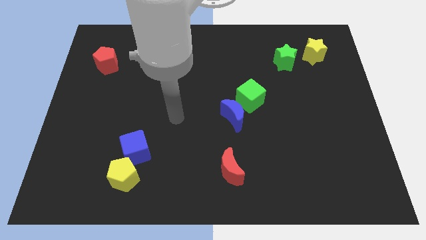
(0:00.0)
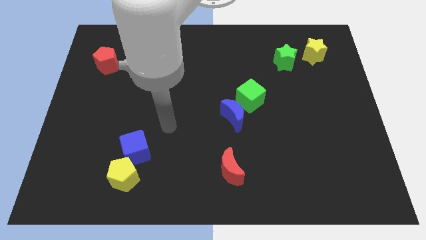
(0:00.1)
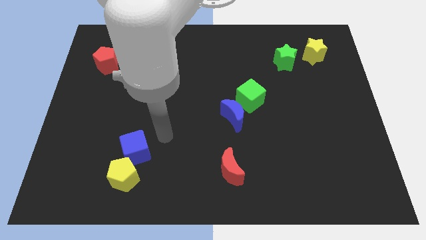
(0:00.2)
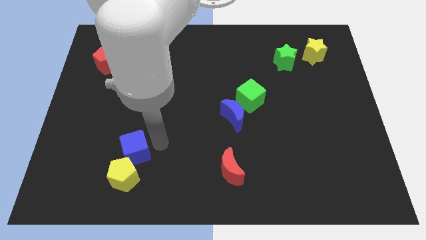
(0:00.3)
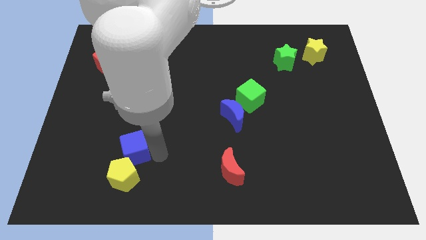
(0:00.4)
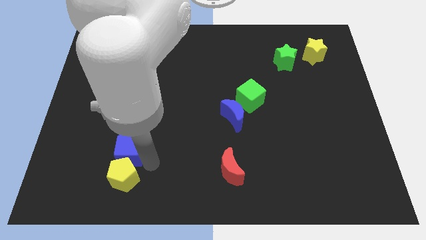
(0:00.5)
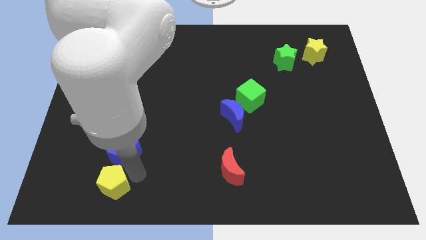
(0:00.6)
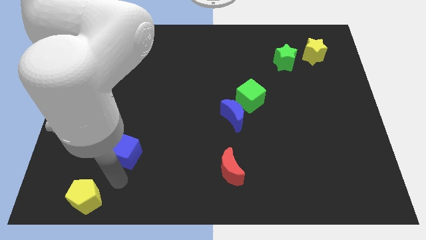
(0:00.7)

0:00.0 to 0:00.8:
move the blue cube away from the yellow pentagon

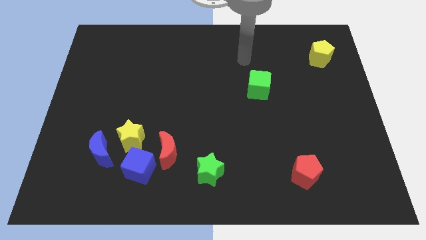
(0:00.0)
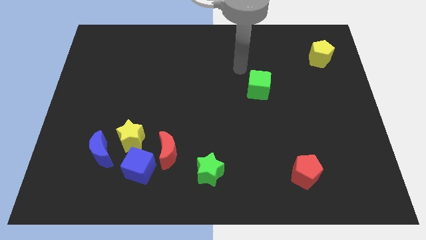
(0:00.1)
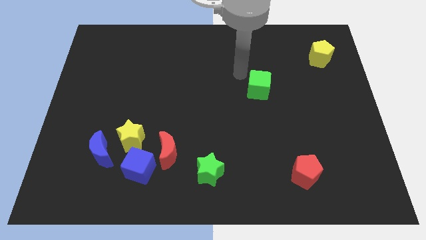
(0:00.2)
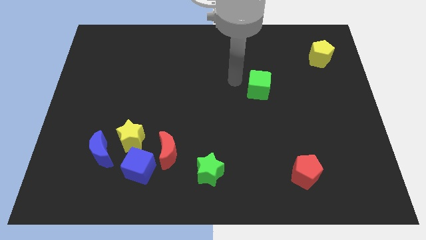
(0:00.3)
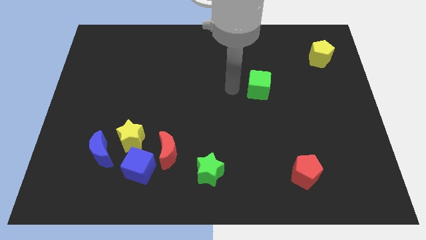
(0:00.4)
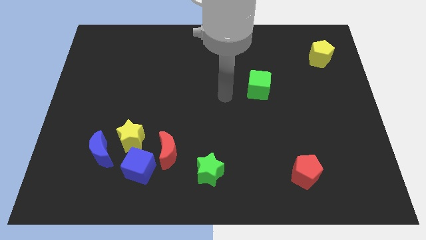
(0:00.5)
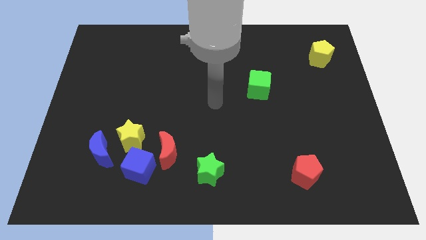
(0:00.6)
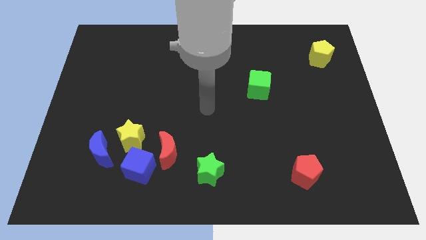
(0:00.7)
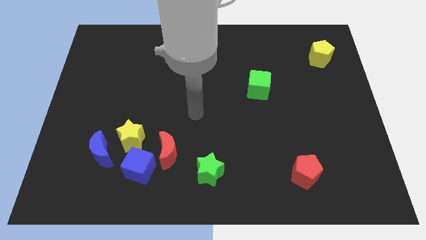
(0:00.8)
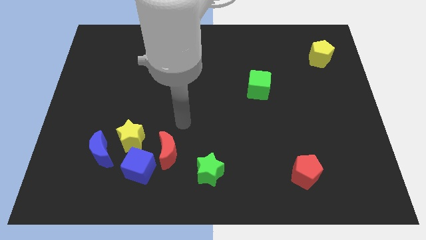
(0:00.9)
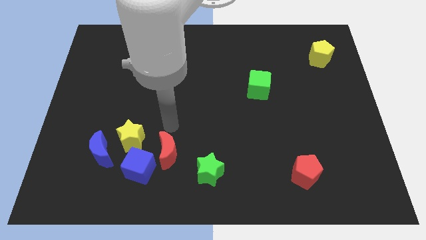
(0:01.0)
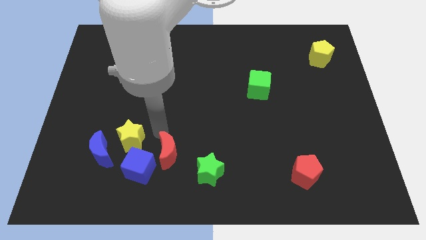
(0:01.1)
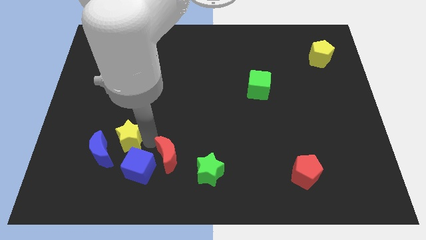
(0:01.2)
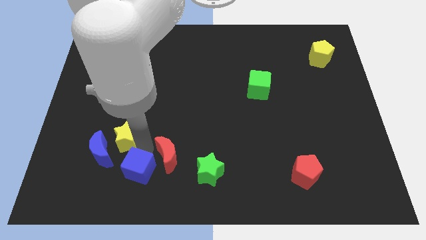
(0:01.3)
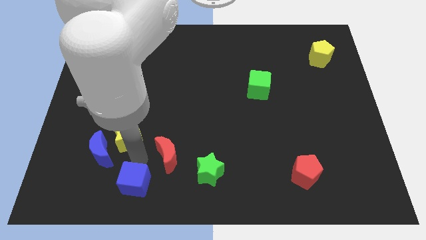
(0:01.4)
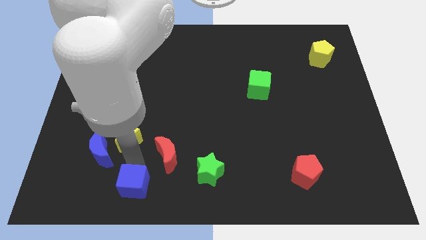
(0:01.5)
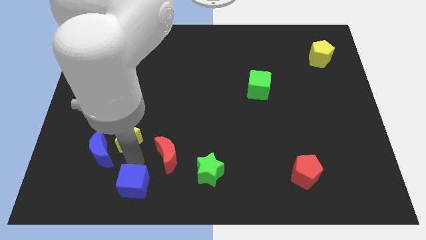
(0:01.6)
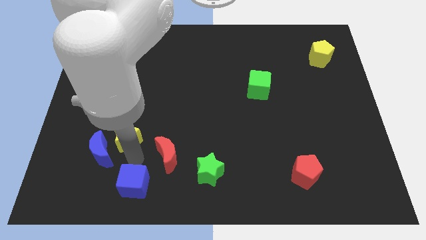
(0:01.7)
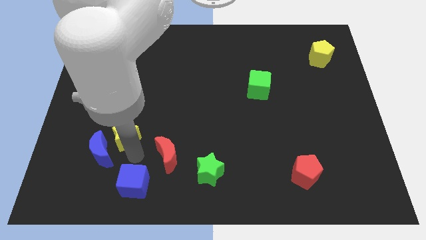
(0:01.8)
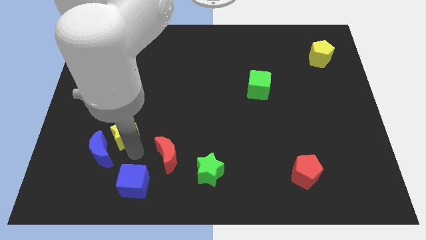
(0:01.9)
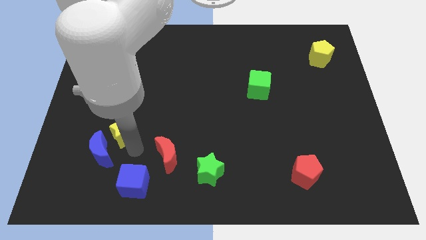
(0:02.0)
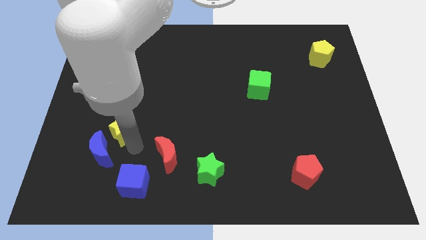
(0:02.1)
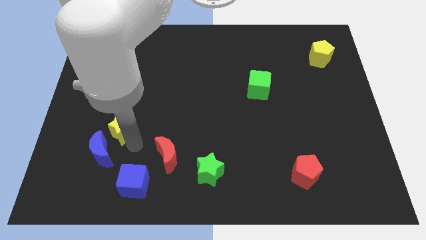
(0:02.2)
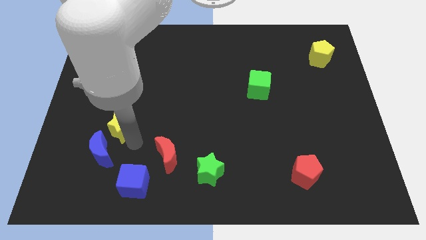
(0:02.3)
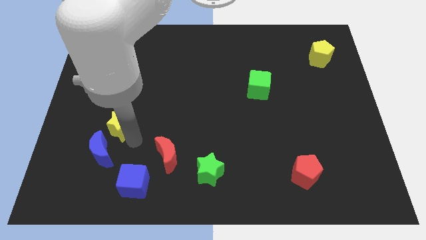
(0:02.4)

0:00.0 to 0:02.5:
move the yellow star away from the group

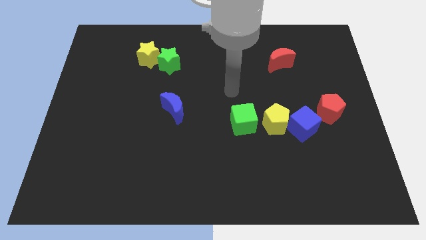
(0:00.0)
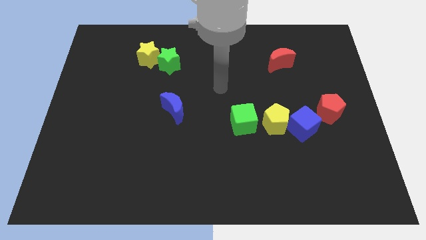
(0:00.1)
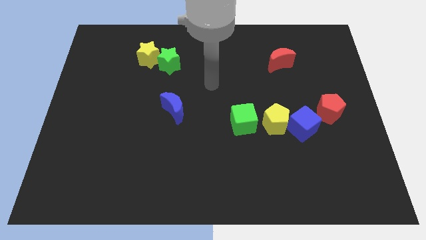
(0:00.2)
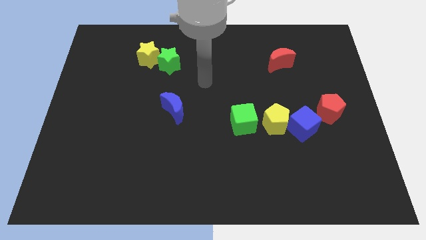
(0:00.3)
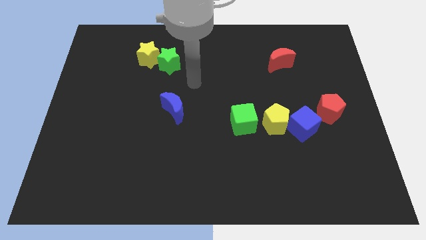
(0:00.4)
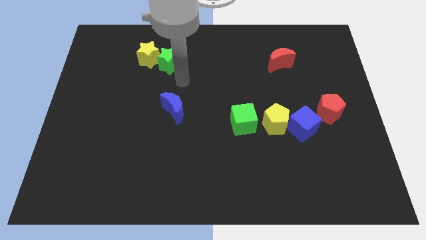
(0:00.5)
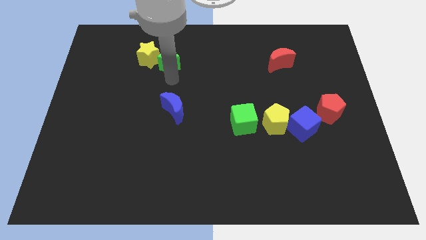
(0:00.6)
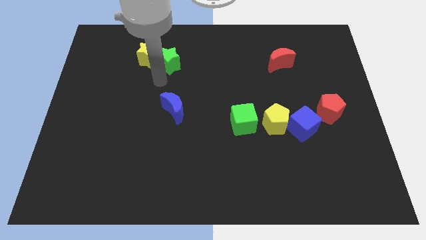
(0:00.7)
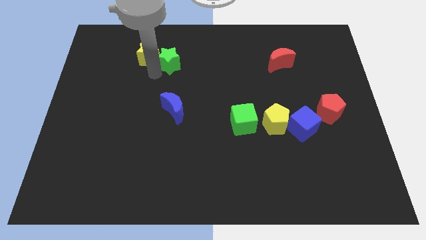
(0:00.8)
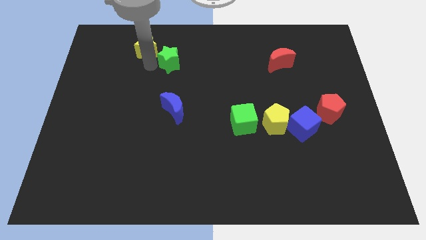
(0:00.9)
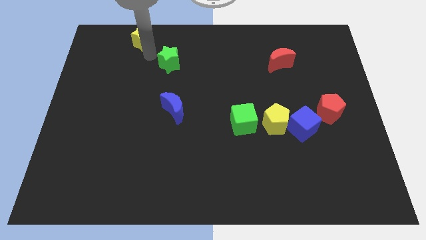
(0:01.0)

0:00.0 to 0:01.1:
move the green star away from the yellow star

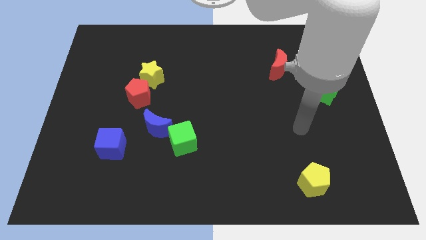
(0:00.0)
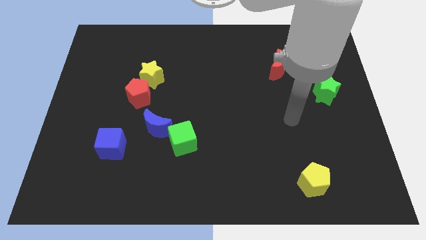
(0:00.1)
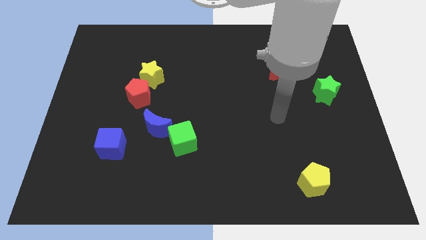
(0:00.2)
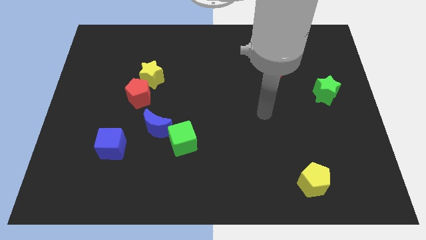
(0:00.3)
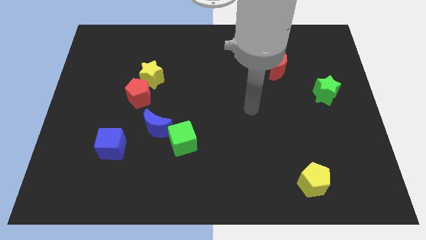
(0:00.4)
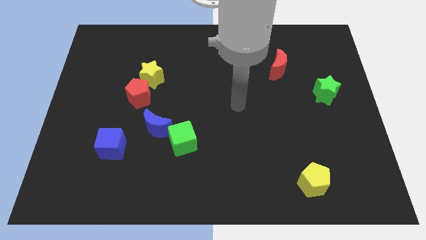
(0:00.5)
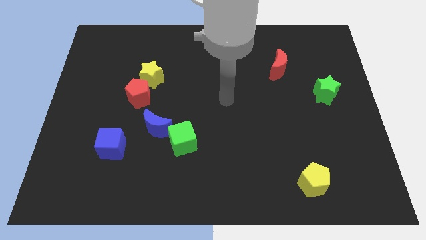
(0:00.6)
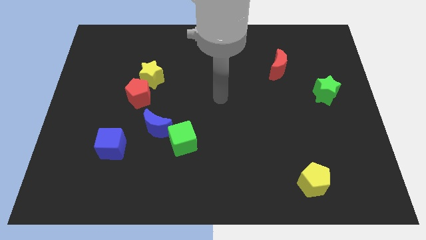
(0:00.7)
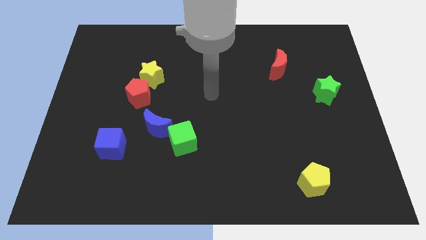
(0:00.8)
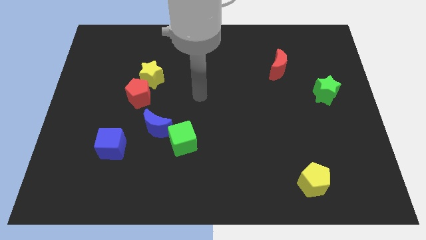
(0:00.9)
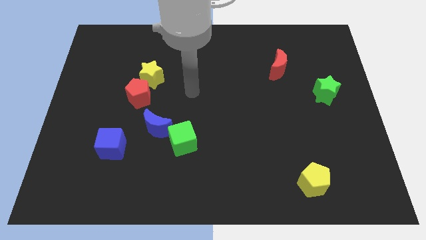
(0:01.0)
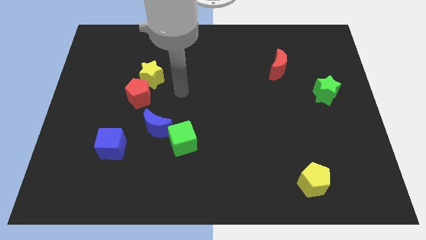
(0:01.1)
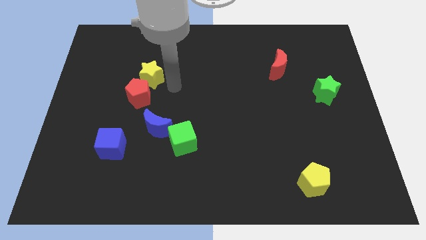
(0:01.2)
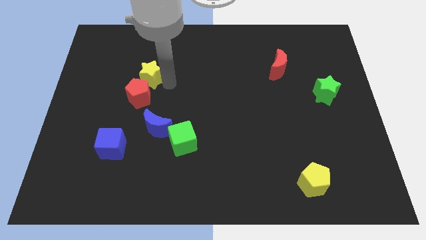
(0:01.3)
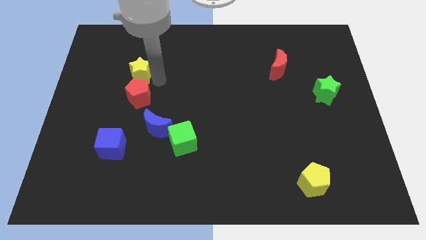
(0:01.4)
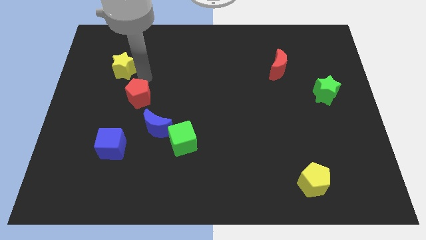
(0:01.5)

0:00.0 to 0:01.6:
pull the red pentagon apart from the yellow star

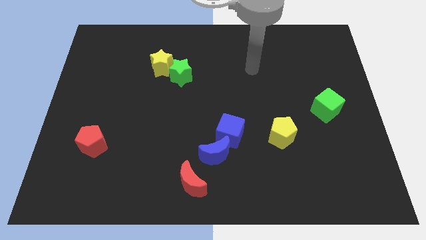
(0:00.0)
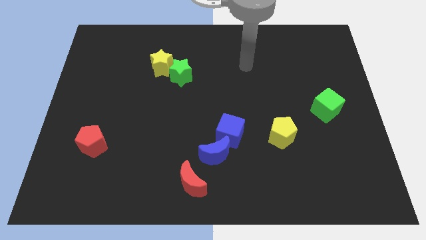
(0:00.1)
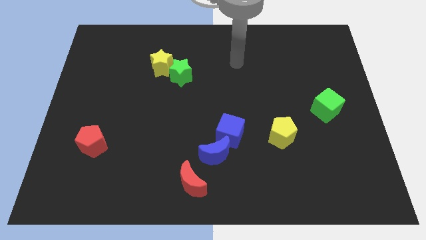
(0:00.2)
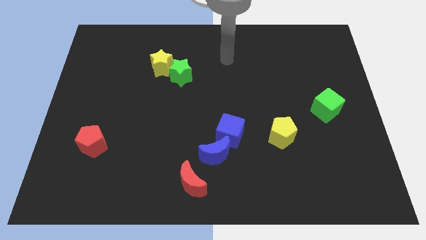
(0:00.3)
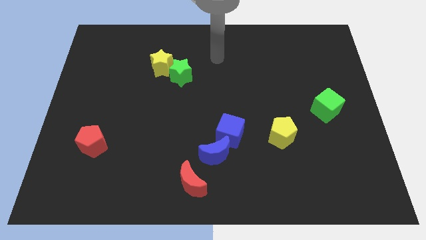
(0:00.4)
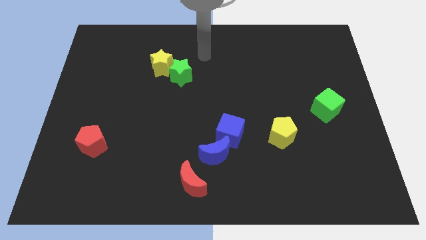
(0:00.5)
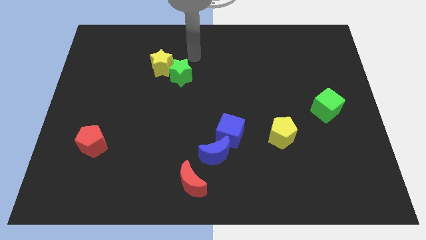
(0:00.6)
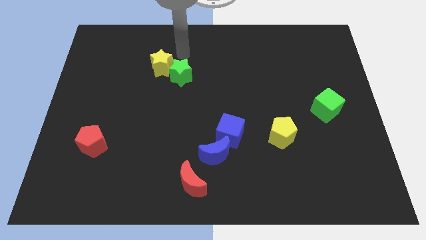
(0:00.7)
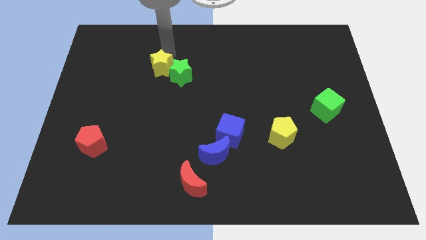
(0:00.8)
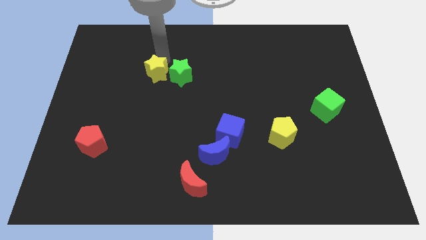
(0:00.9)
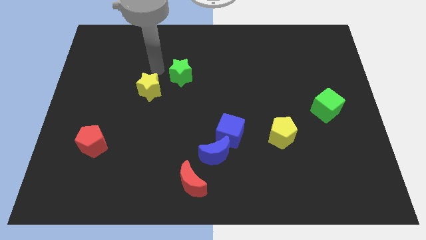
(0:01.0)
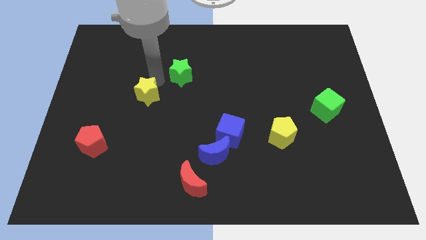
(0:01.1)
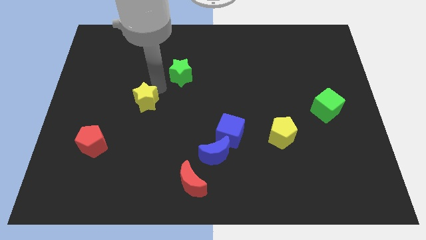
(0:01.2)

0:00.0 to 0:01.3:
separate the green star from the yellow star

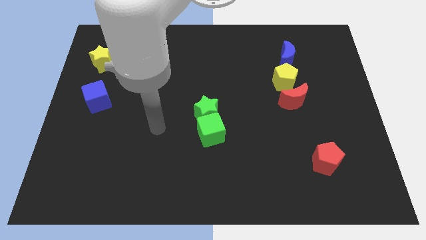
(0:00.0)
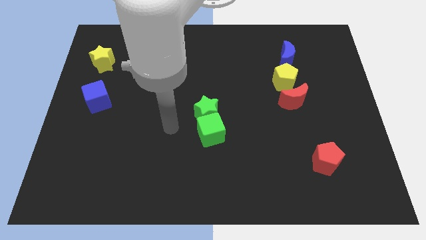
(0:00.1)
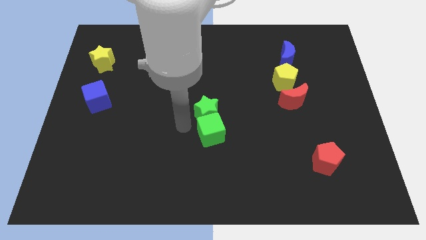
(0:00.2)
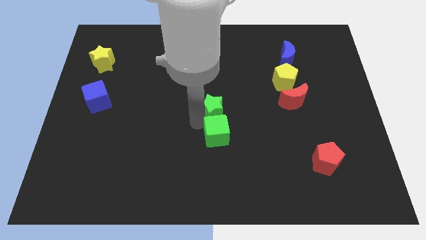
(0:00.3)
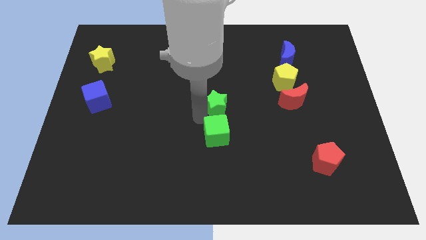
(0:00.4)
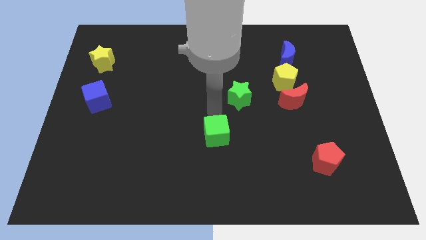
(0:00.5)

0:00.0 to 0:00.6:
separate the green cube from the green star

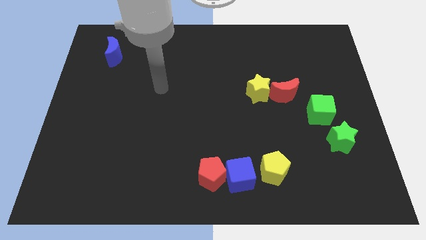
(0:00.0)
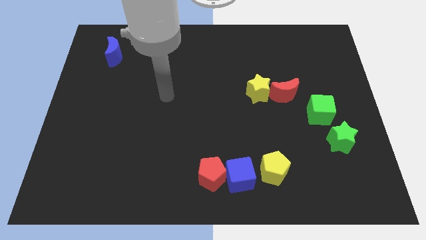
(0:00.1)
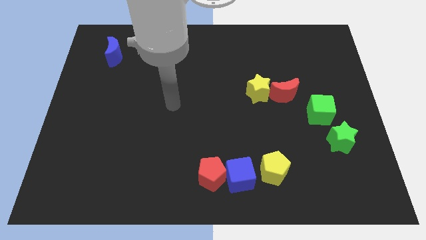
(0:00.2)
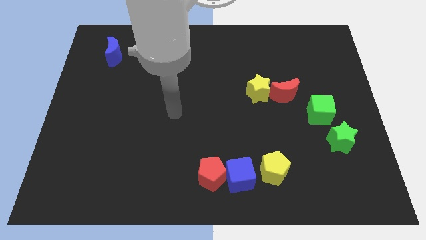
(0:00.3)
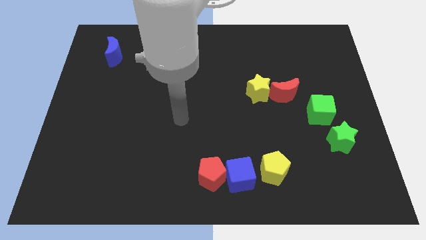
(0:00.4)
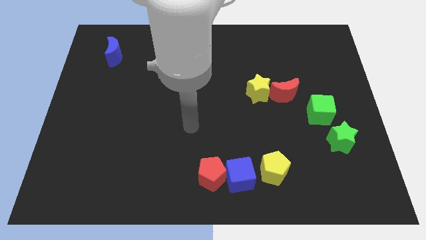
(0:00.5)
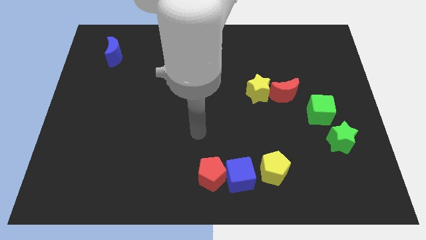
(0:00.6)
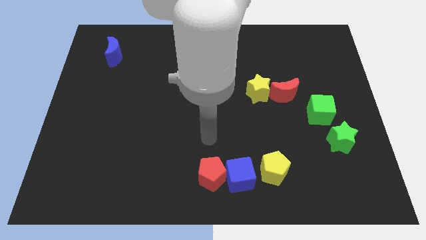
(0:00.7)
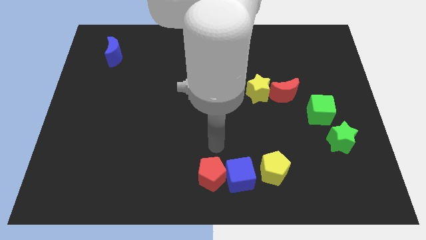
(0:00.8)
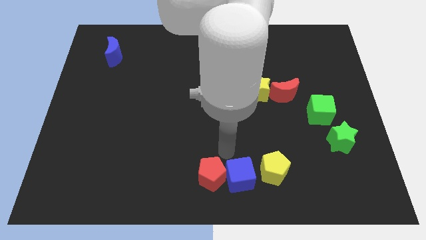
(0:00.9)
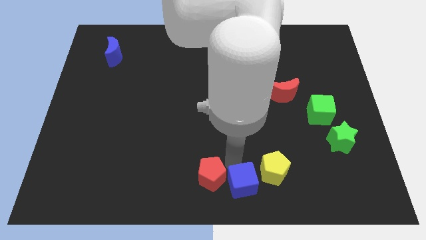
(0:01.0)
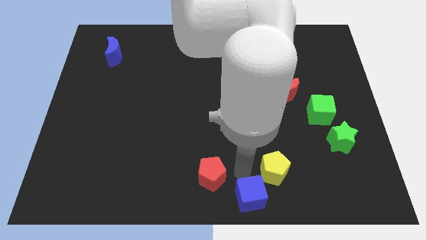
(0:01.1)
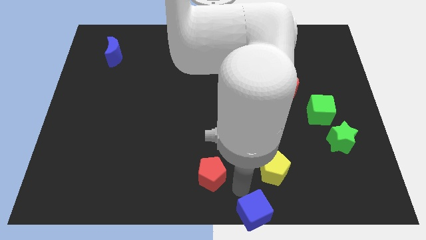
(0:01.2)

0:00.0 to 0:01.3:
pull the red pentagon apart from the blue cube

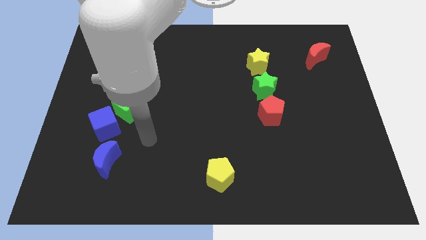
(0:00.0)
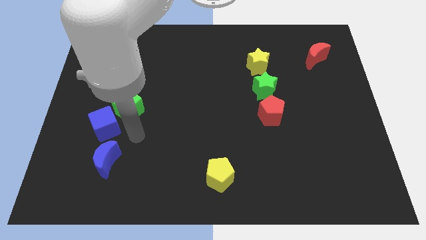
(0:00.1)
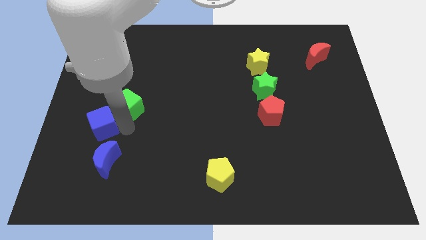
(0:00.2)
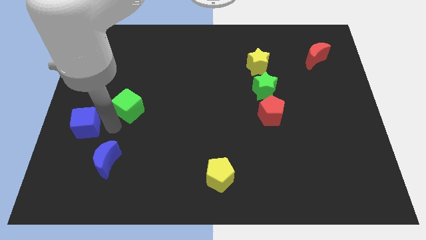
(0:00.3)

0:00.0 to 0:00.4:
separate the green cube from the blue cube
